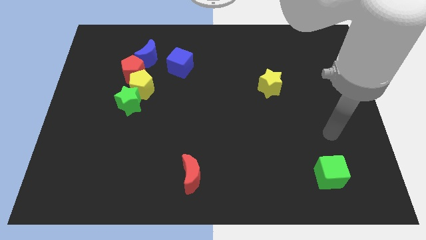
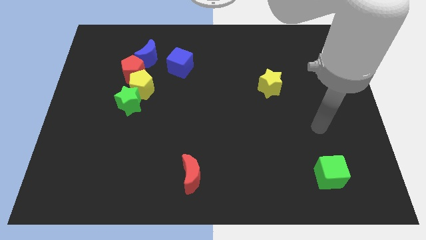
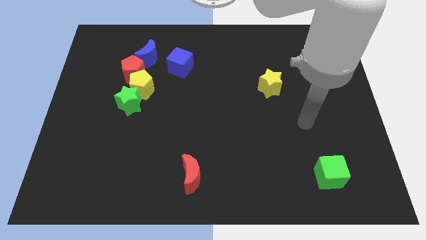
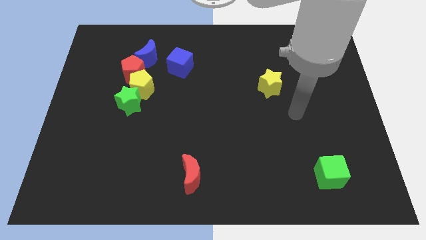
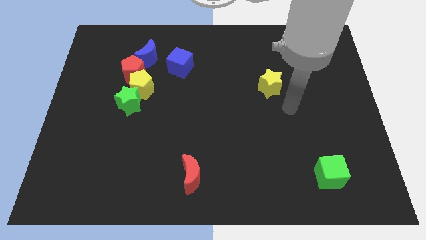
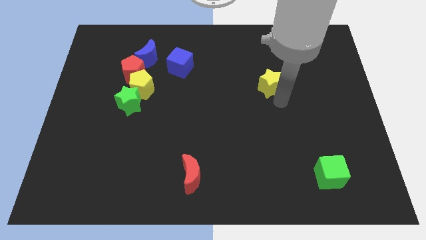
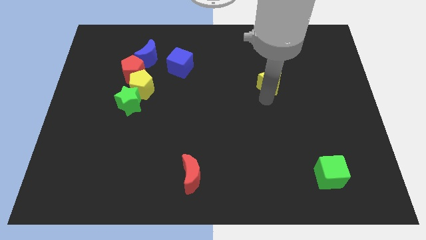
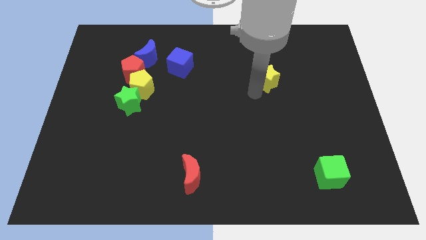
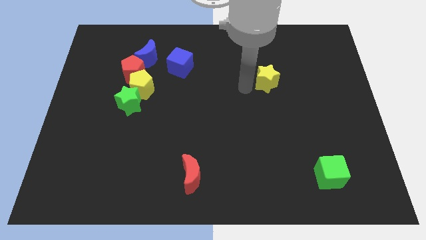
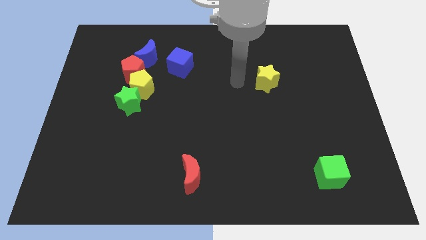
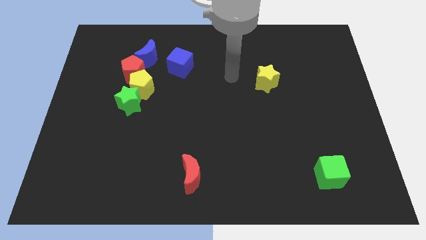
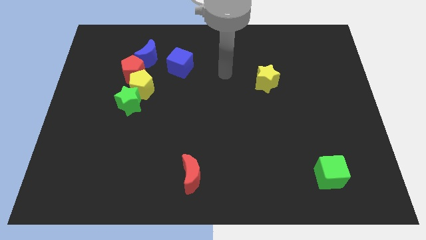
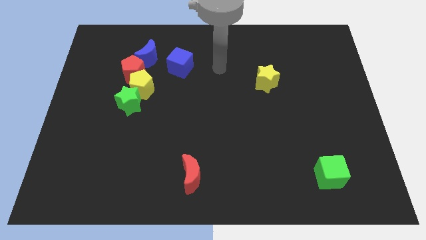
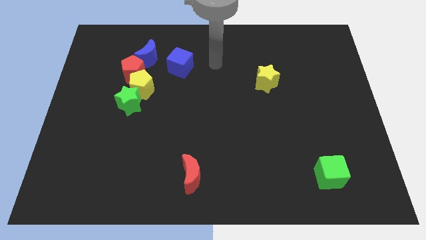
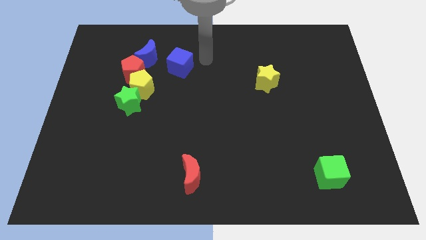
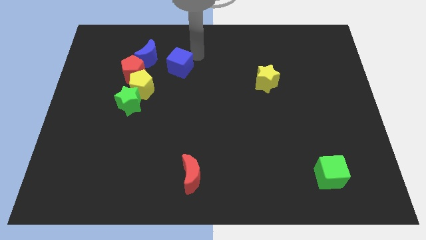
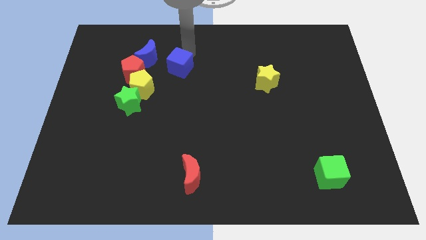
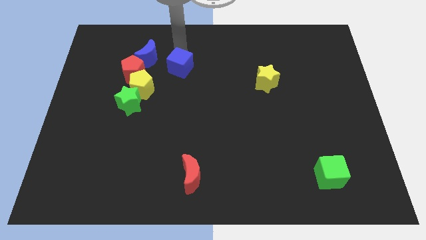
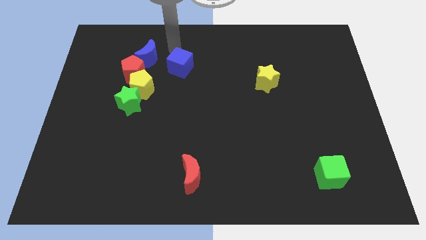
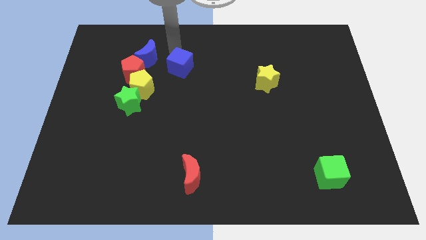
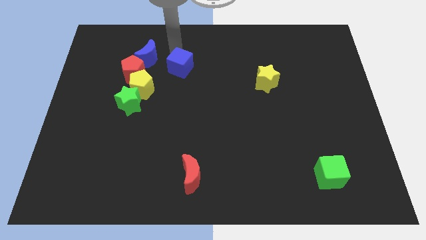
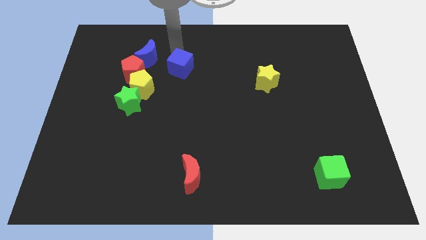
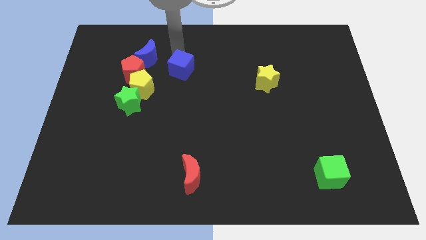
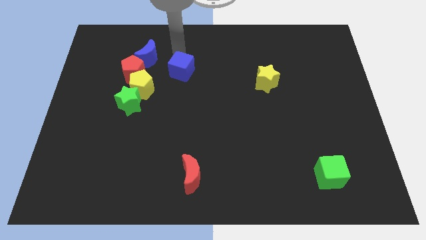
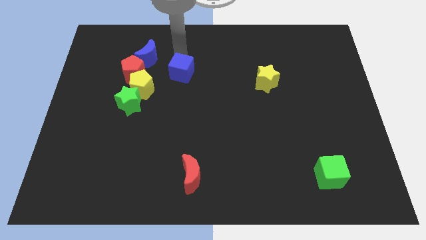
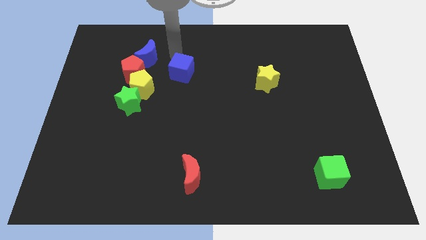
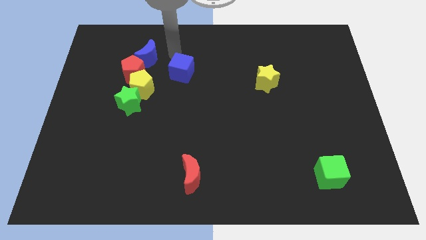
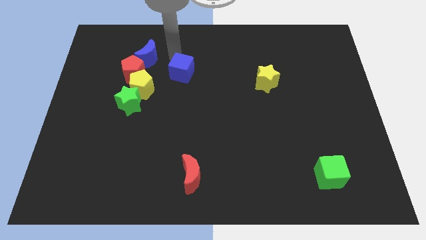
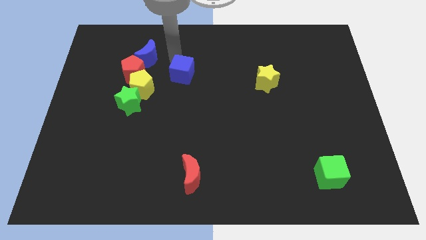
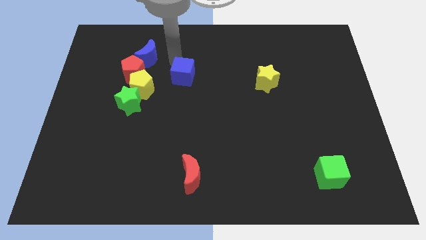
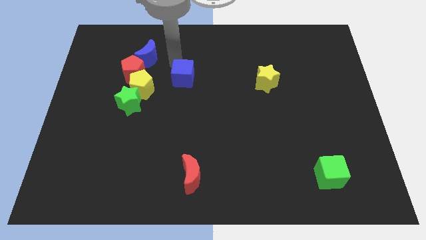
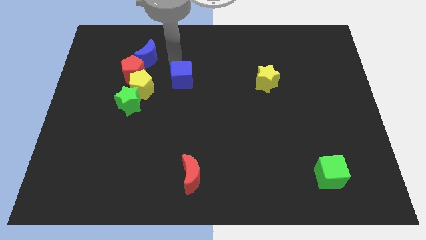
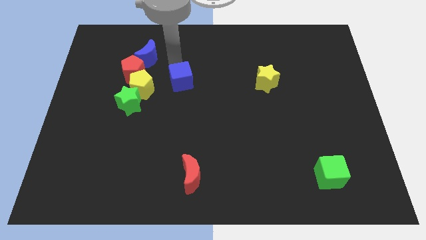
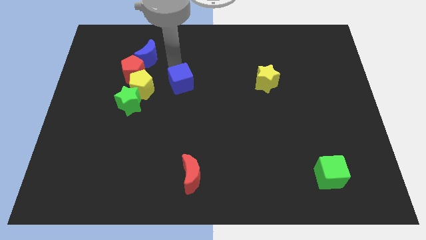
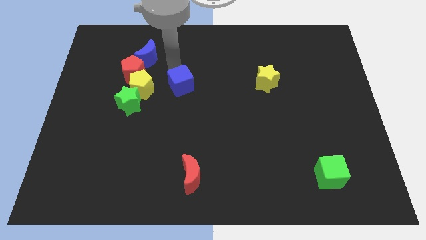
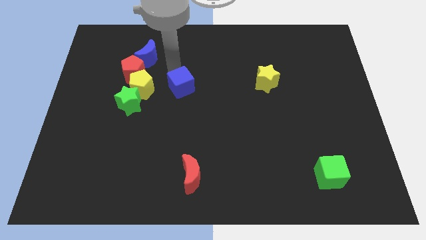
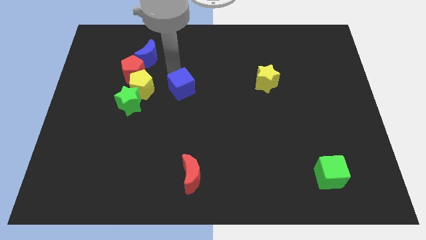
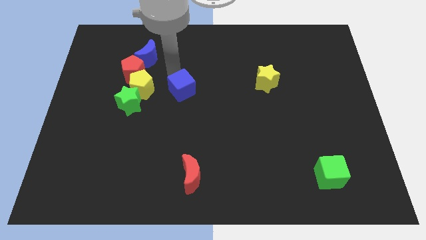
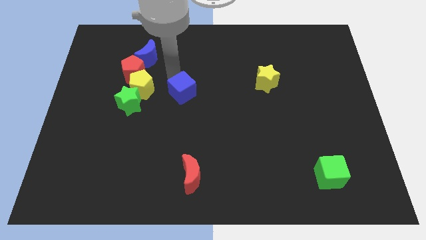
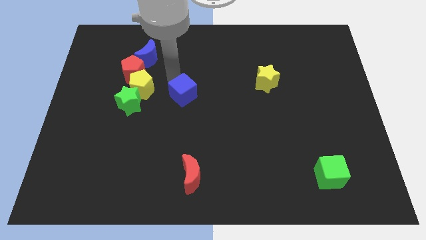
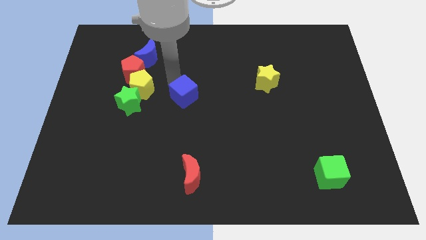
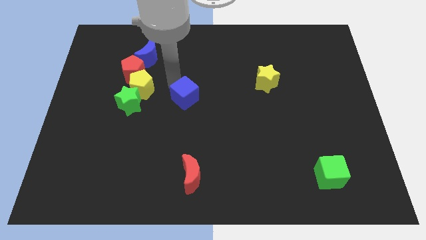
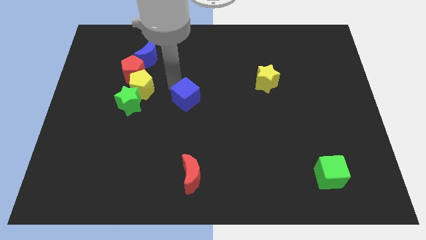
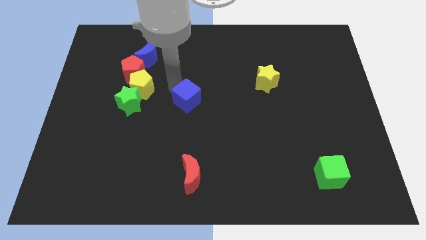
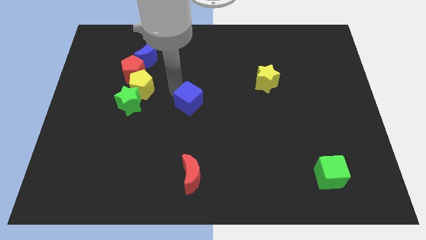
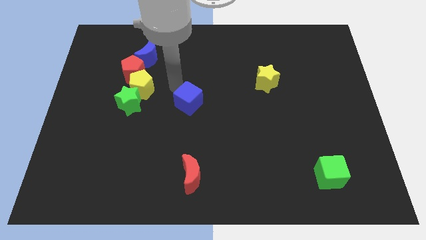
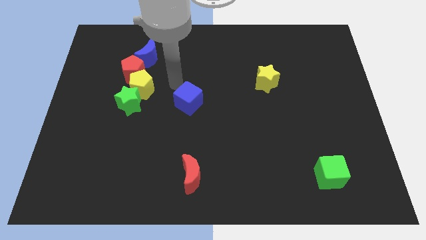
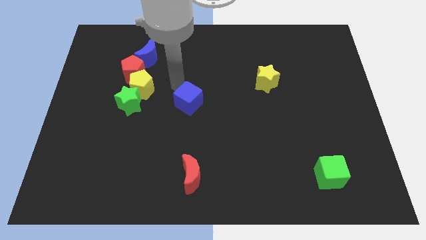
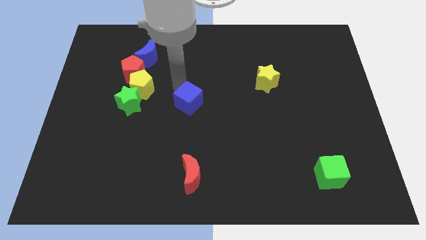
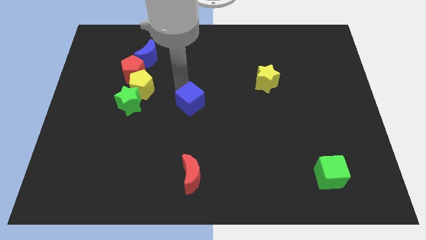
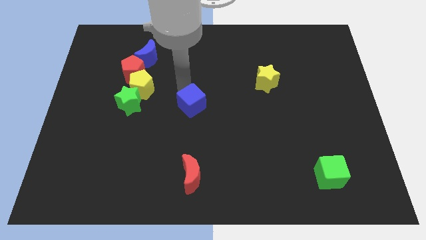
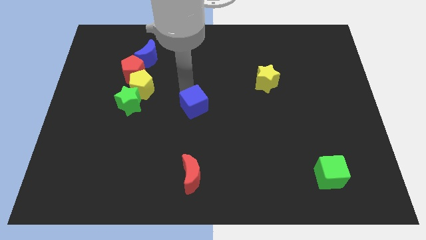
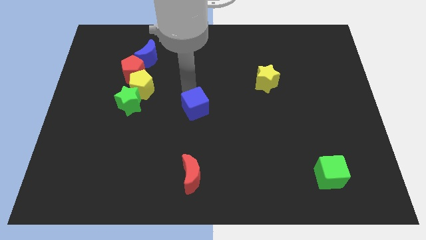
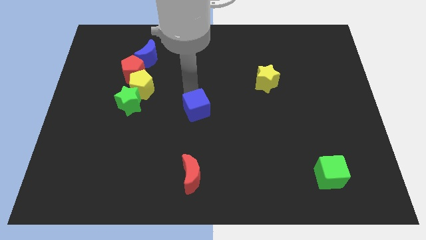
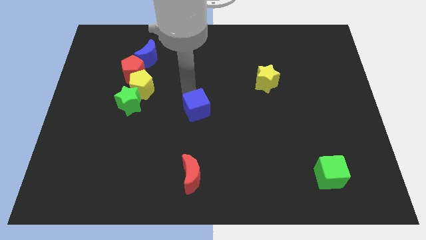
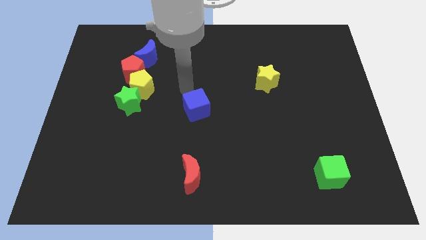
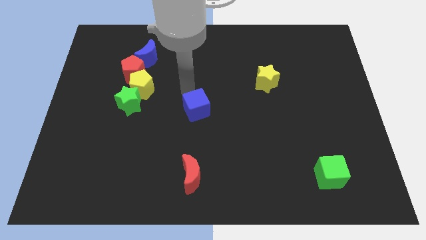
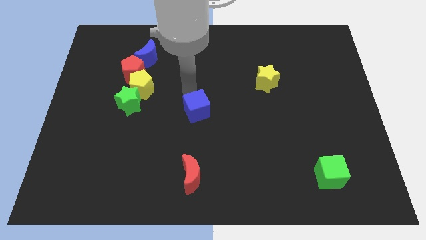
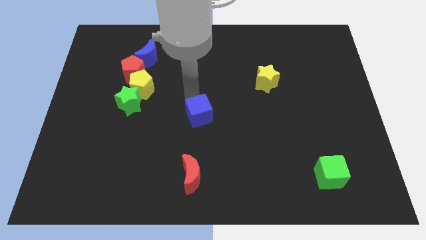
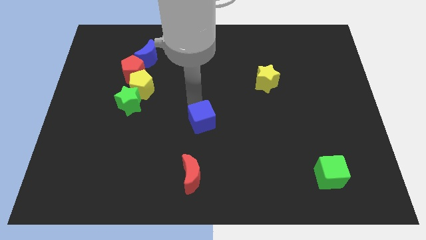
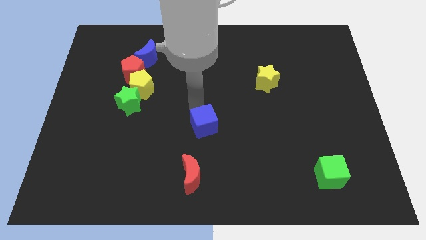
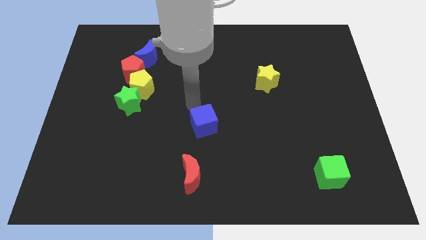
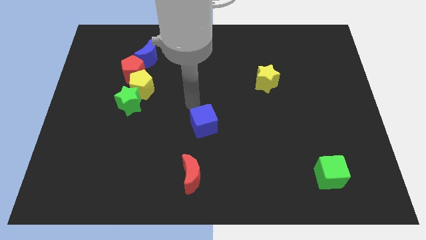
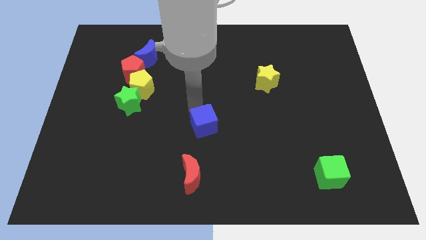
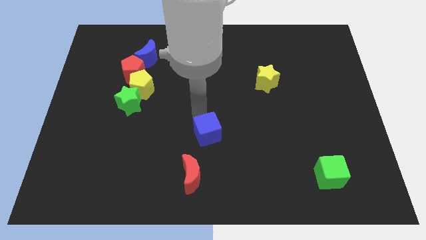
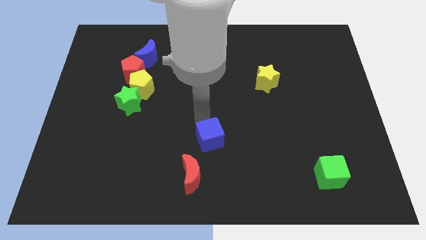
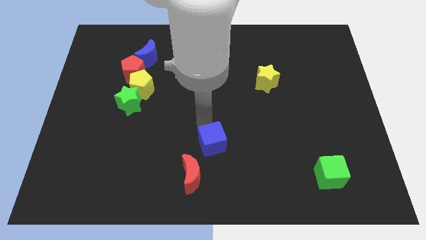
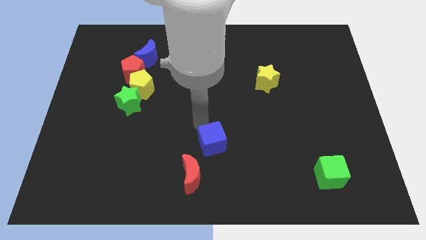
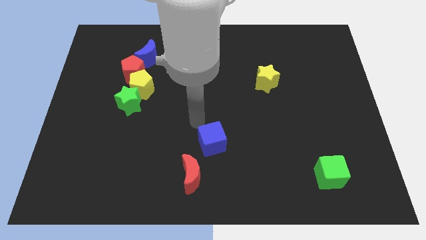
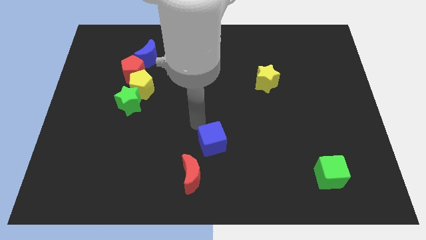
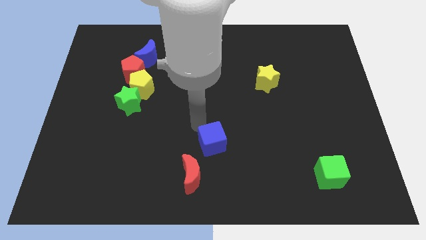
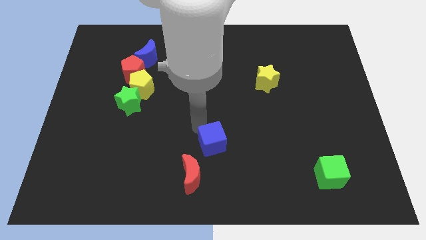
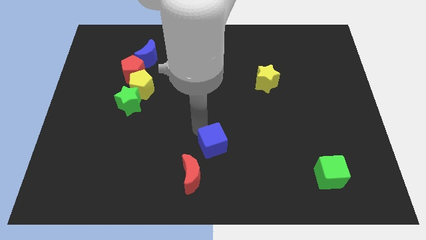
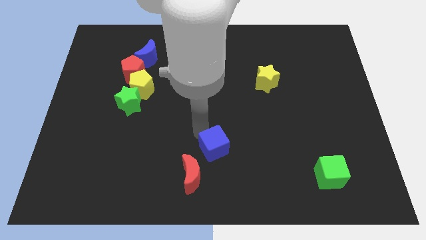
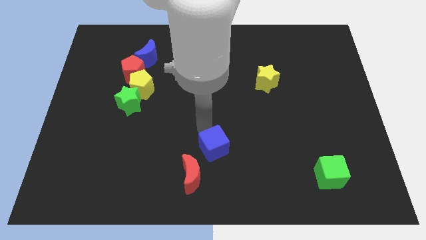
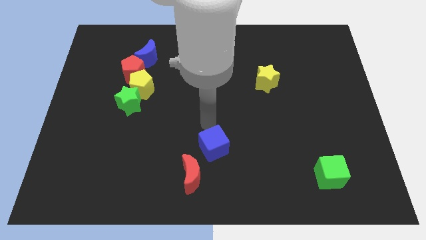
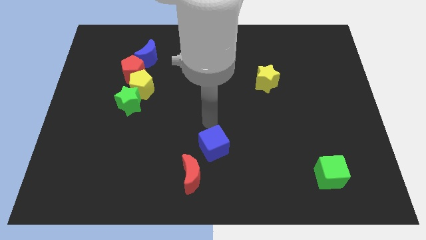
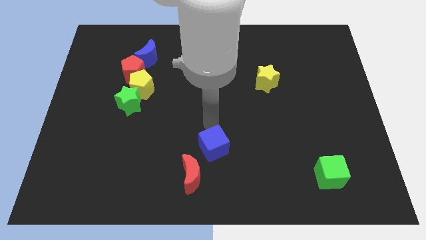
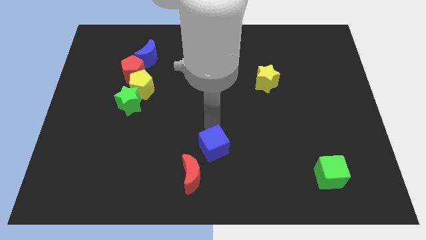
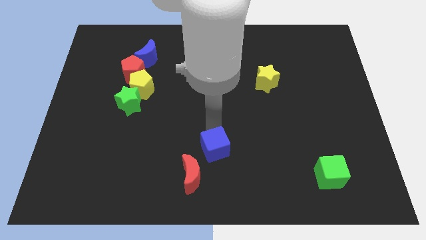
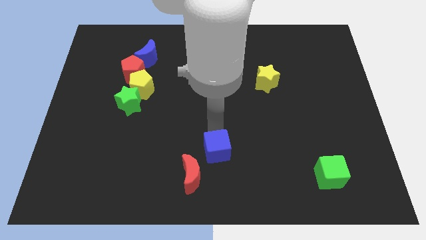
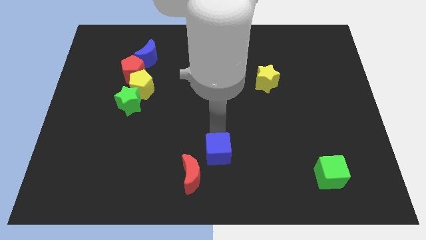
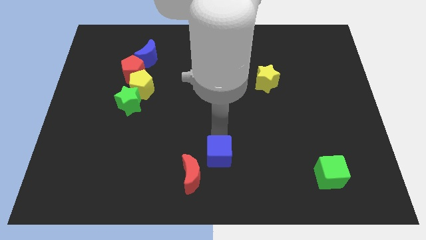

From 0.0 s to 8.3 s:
move the blue cube to the bottom
